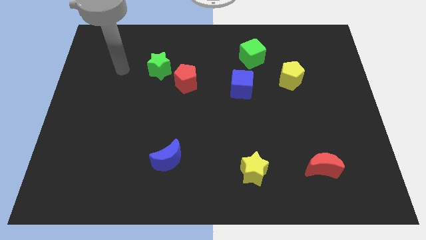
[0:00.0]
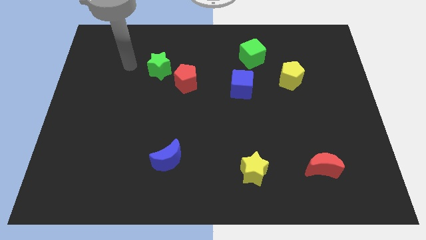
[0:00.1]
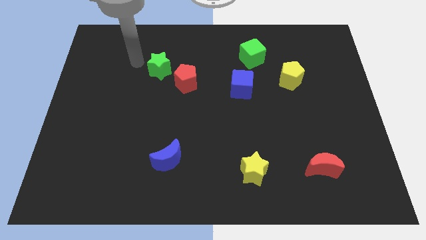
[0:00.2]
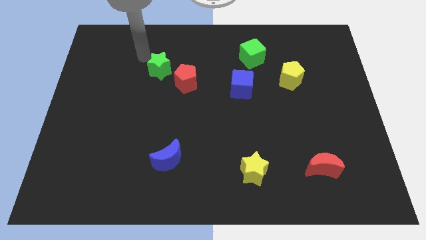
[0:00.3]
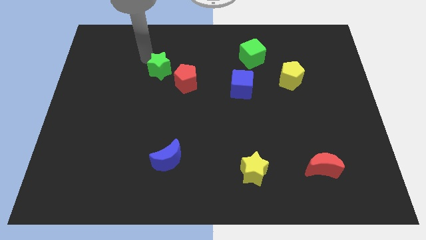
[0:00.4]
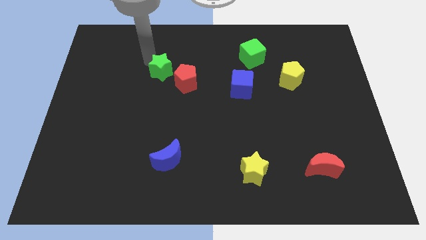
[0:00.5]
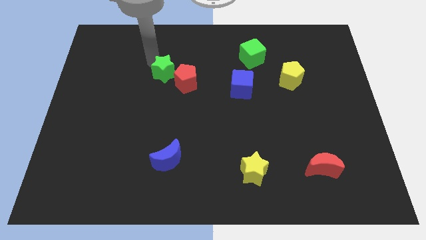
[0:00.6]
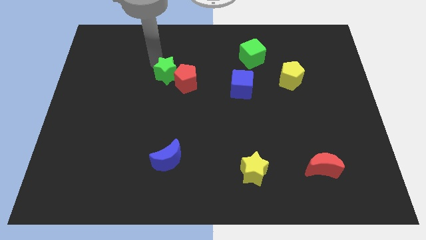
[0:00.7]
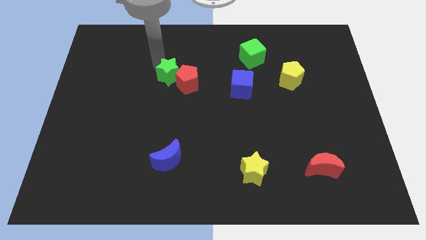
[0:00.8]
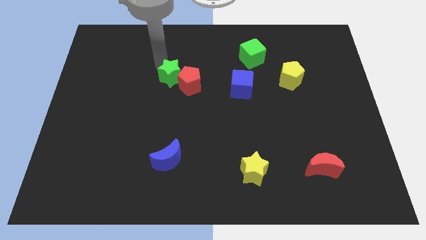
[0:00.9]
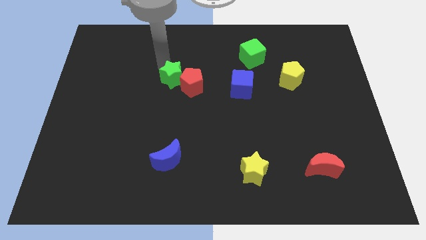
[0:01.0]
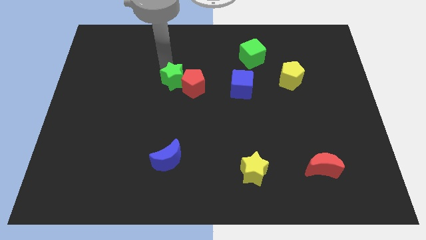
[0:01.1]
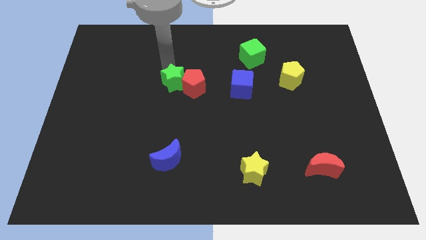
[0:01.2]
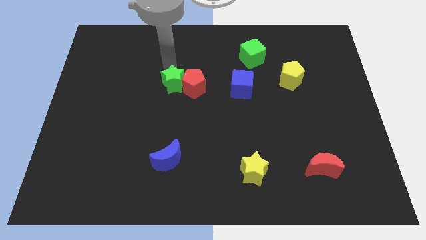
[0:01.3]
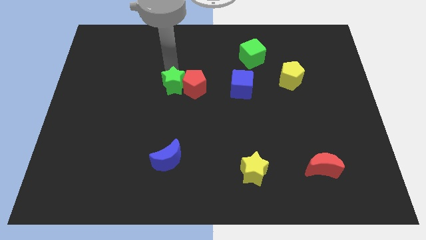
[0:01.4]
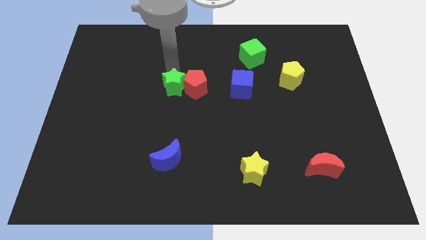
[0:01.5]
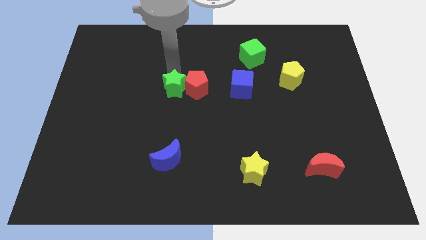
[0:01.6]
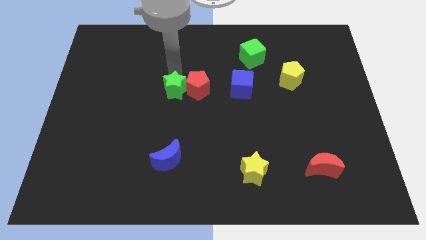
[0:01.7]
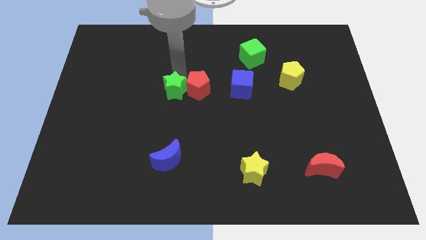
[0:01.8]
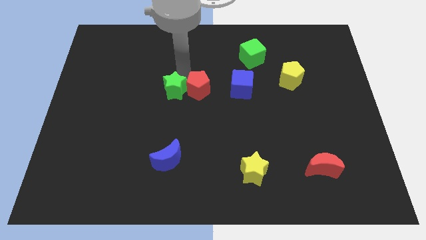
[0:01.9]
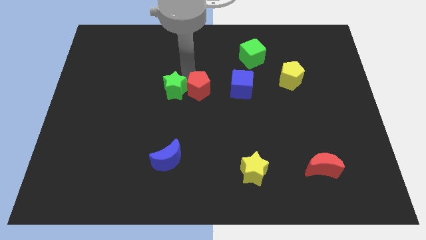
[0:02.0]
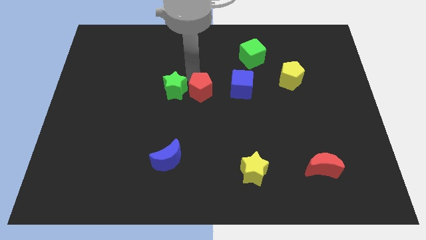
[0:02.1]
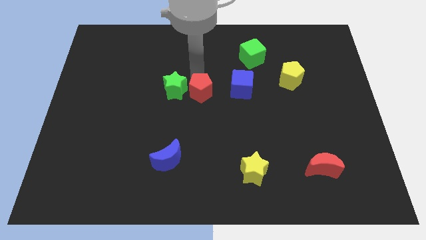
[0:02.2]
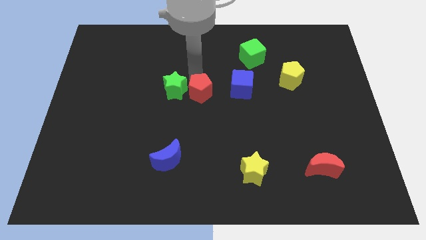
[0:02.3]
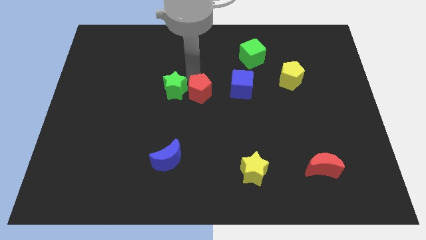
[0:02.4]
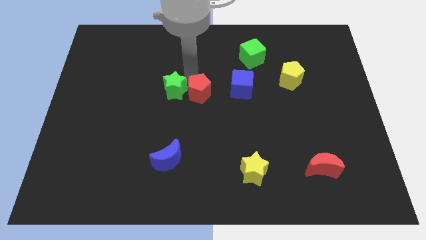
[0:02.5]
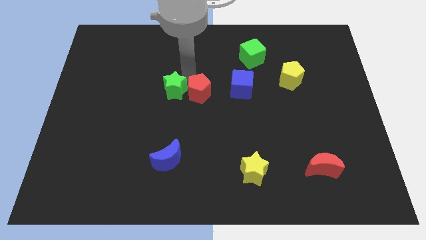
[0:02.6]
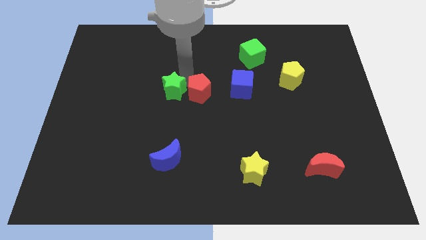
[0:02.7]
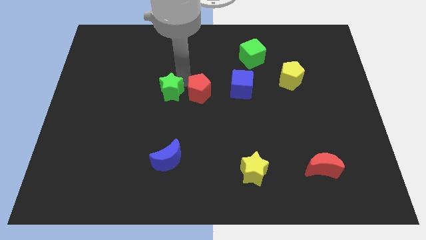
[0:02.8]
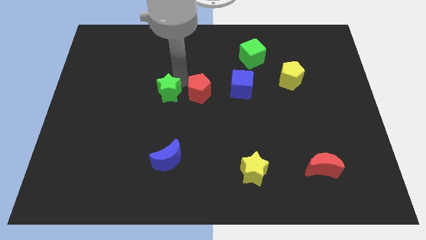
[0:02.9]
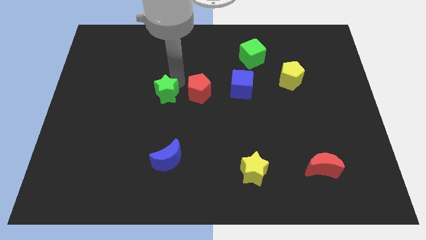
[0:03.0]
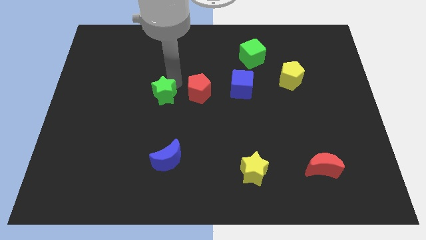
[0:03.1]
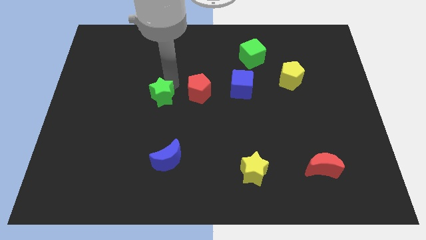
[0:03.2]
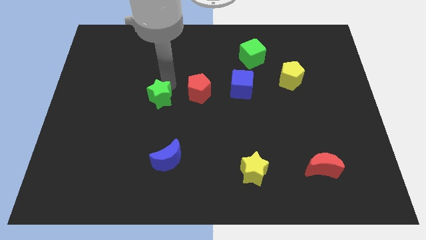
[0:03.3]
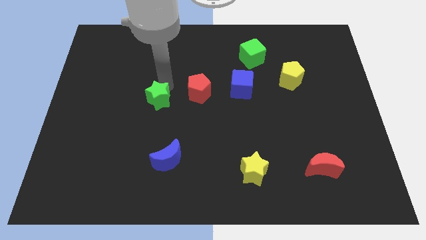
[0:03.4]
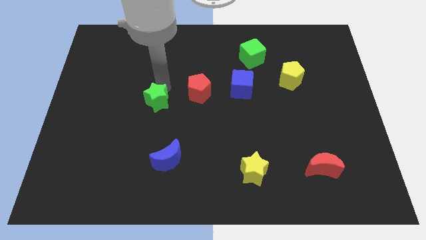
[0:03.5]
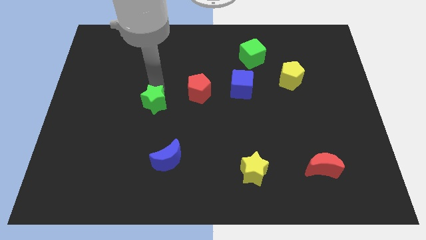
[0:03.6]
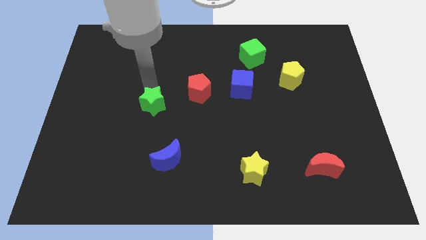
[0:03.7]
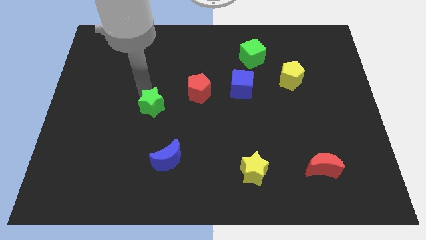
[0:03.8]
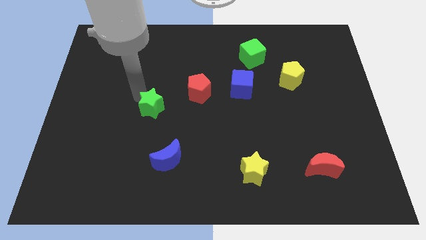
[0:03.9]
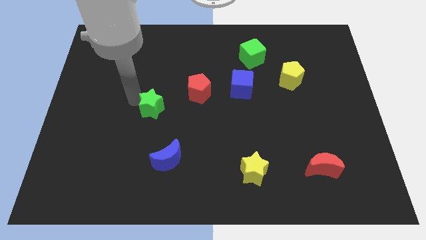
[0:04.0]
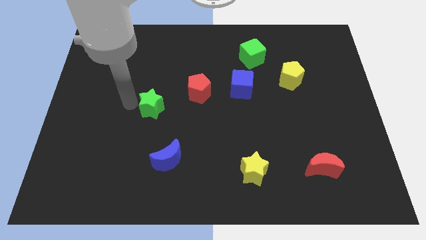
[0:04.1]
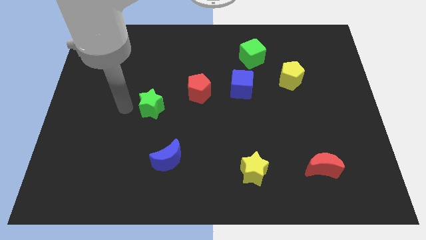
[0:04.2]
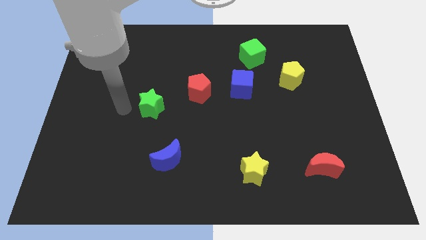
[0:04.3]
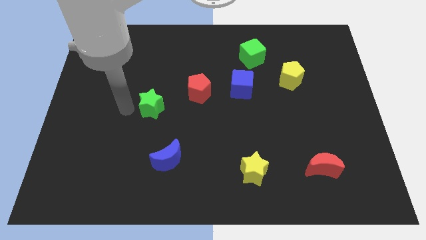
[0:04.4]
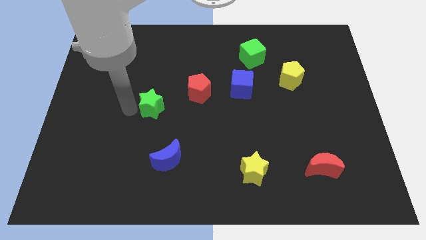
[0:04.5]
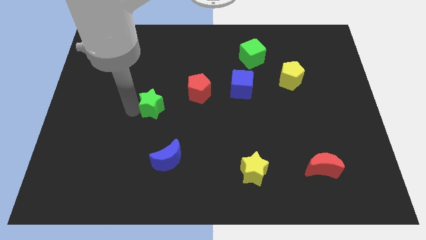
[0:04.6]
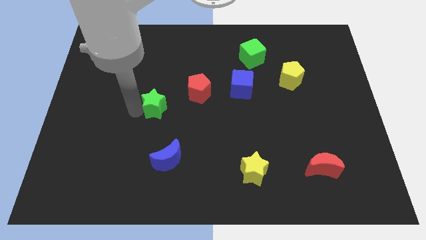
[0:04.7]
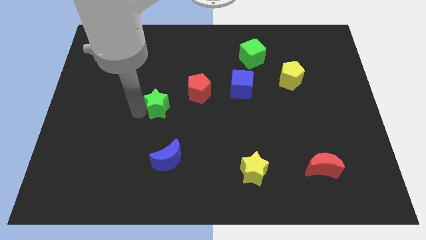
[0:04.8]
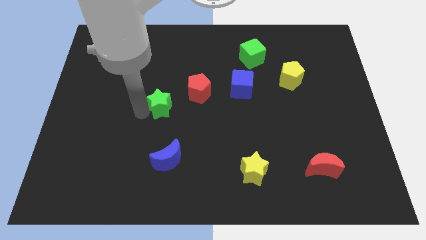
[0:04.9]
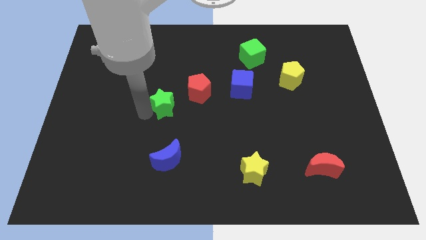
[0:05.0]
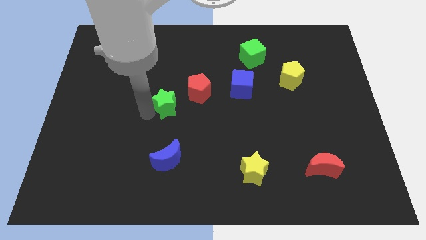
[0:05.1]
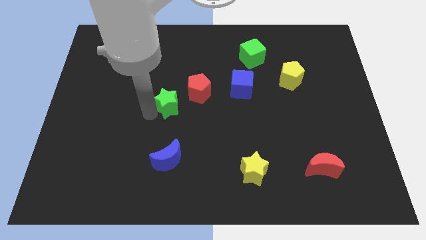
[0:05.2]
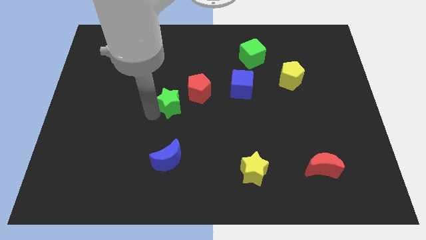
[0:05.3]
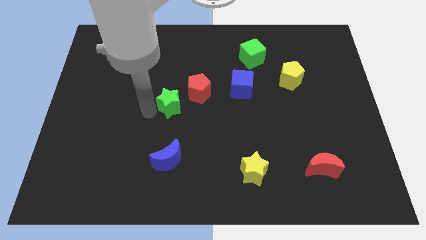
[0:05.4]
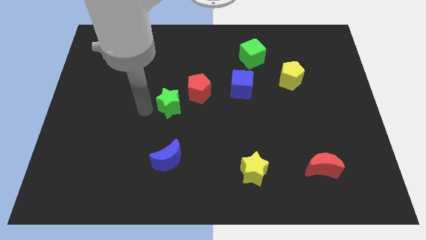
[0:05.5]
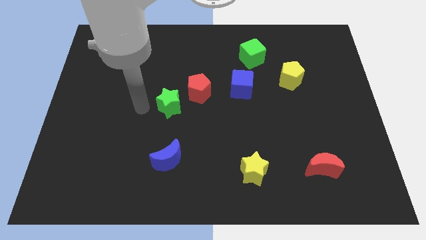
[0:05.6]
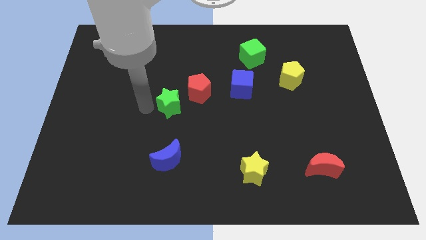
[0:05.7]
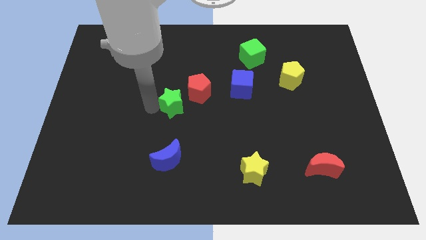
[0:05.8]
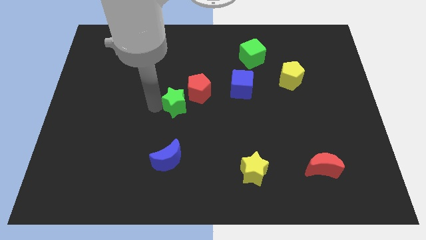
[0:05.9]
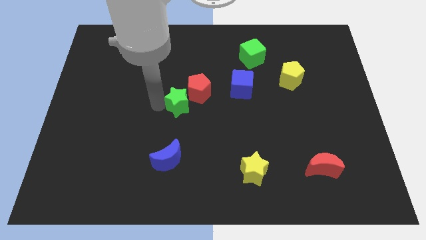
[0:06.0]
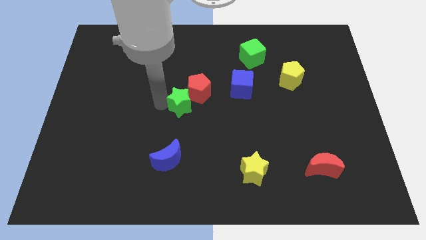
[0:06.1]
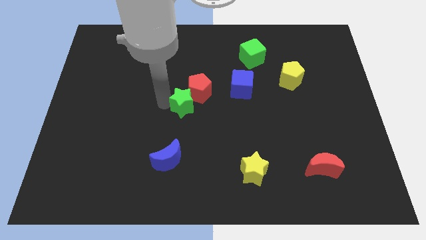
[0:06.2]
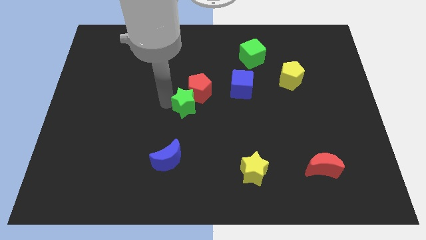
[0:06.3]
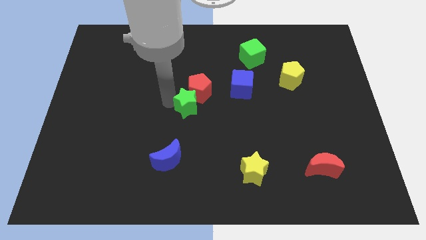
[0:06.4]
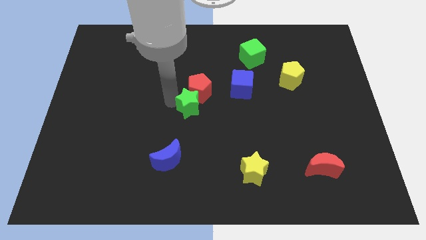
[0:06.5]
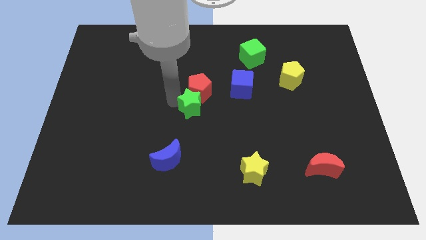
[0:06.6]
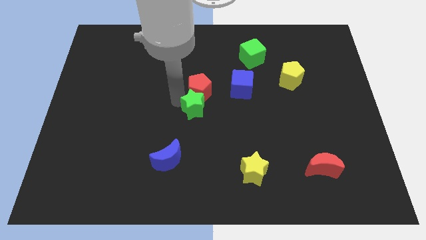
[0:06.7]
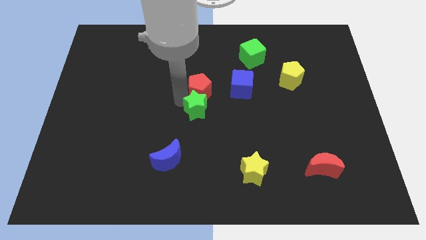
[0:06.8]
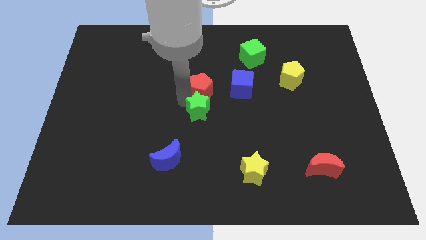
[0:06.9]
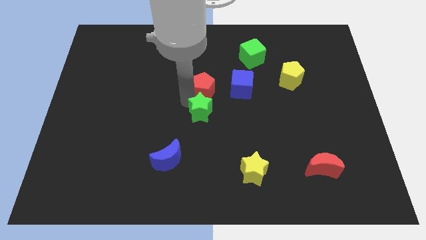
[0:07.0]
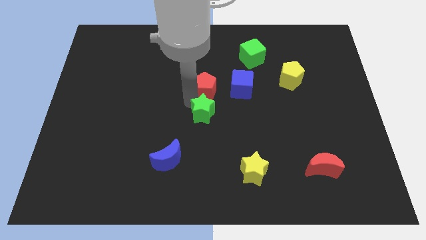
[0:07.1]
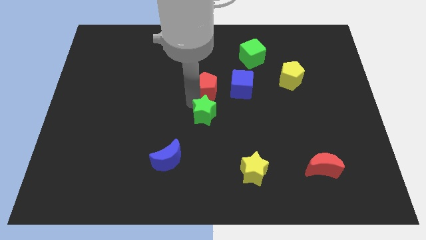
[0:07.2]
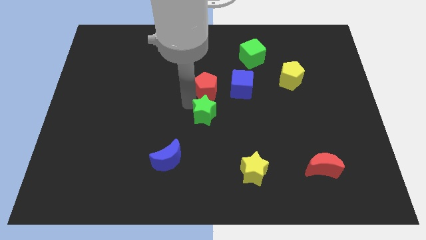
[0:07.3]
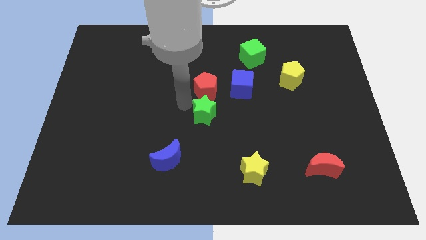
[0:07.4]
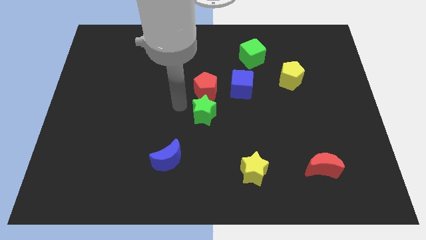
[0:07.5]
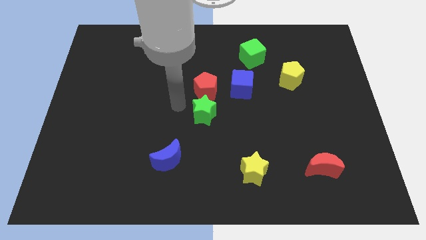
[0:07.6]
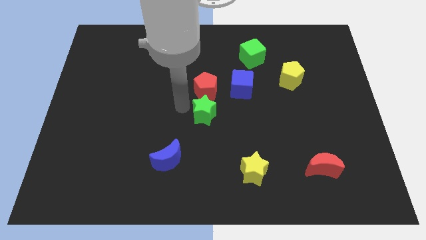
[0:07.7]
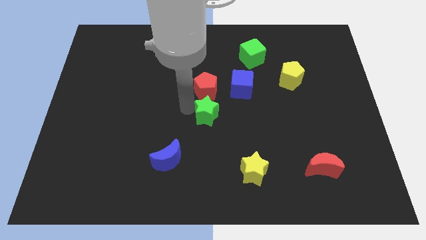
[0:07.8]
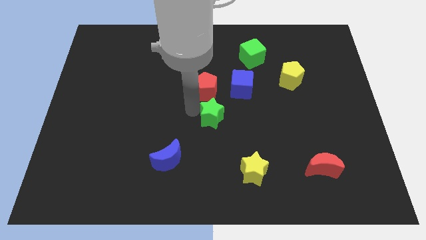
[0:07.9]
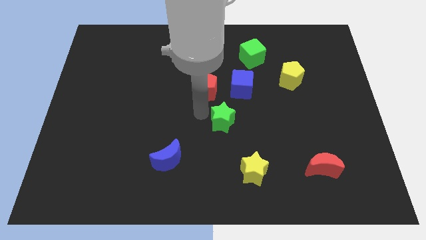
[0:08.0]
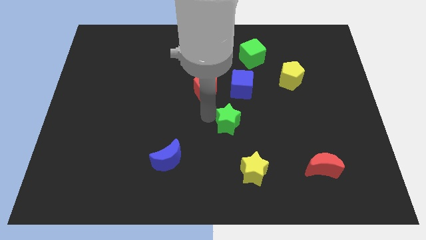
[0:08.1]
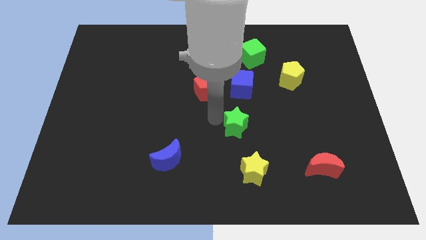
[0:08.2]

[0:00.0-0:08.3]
slide the green star to the top side of the yellow star
